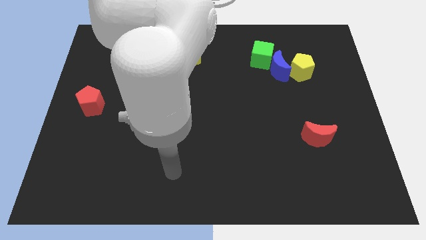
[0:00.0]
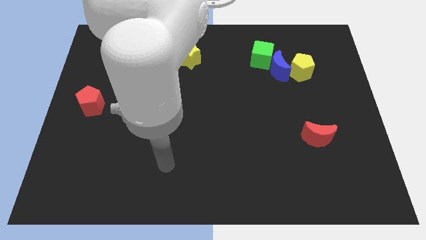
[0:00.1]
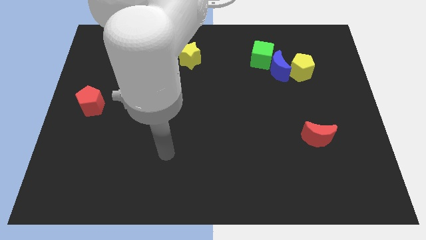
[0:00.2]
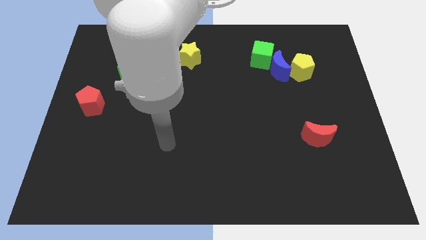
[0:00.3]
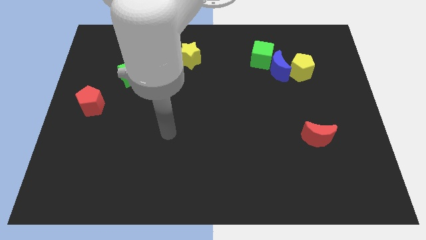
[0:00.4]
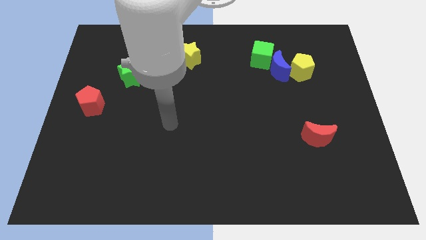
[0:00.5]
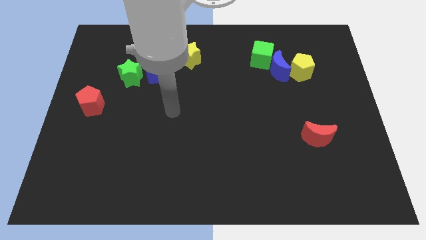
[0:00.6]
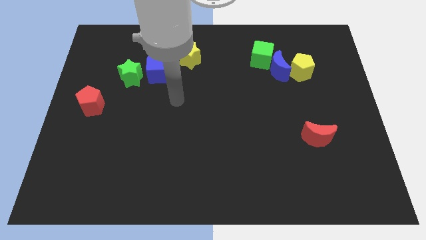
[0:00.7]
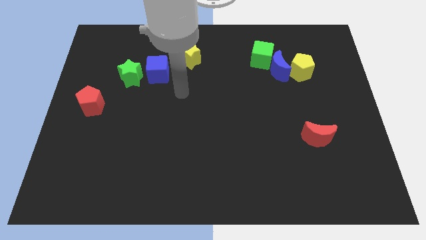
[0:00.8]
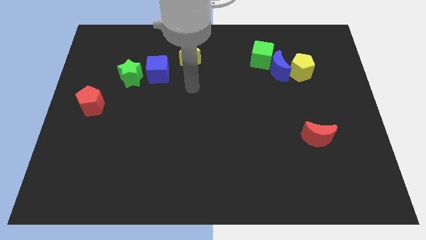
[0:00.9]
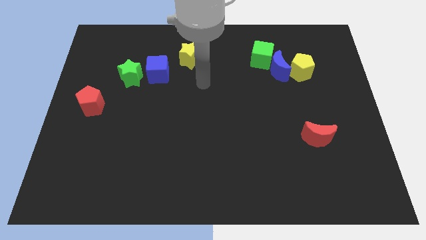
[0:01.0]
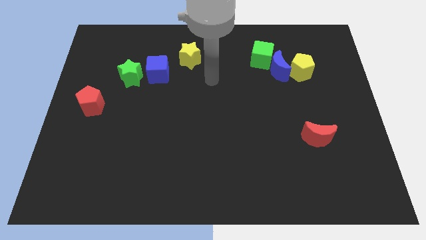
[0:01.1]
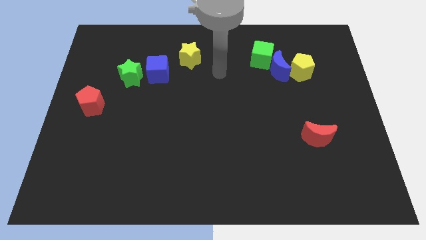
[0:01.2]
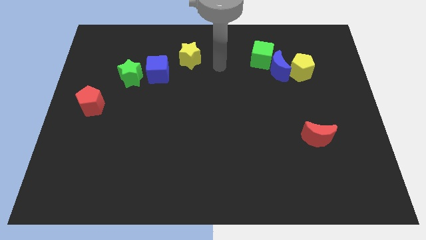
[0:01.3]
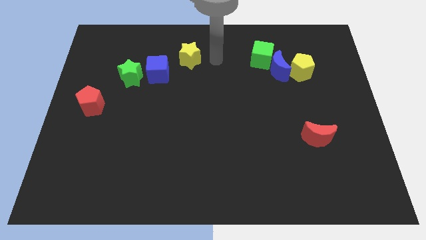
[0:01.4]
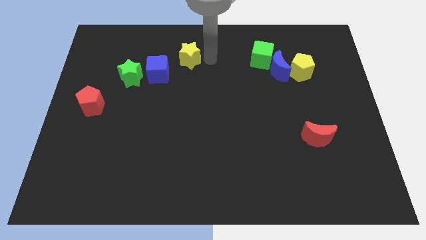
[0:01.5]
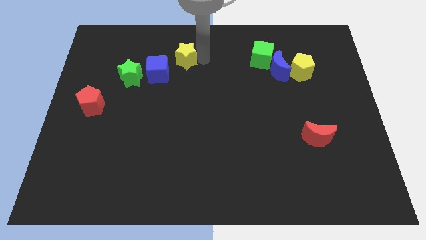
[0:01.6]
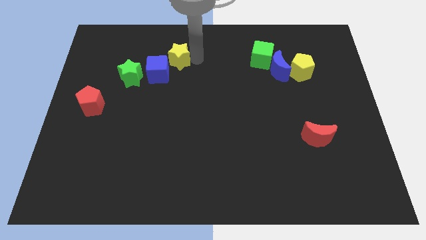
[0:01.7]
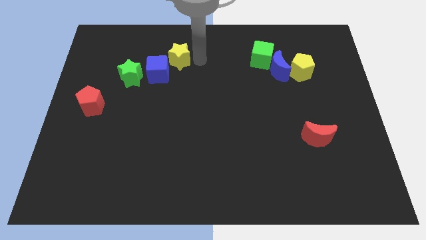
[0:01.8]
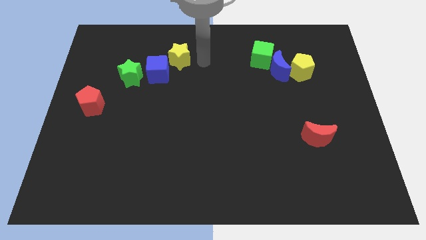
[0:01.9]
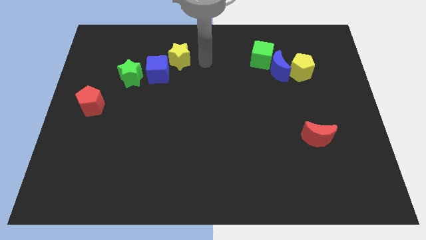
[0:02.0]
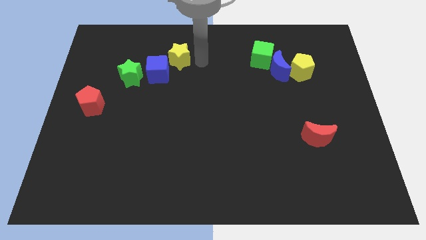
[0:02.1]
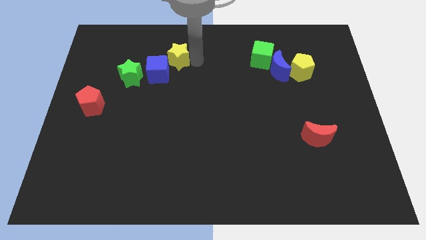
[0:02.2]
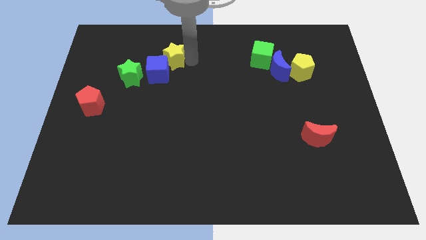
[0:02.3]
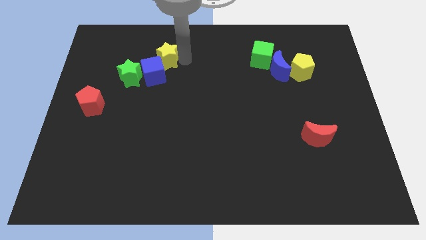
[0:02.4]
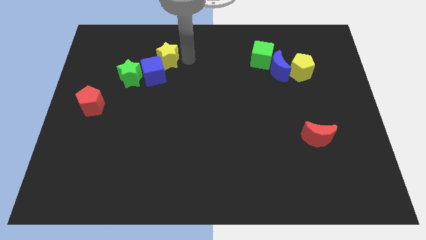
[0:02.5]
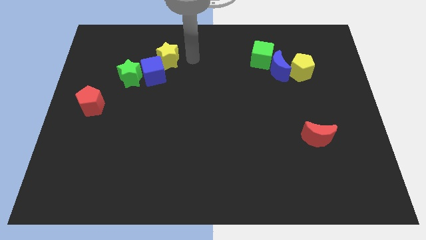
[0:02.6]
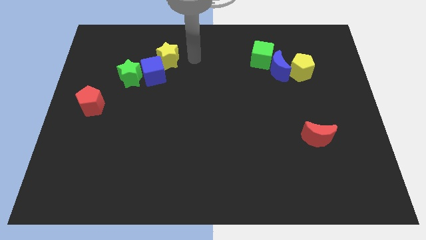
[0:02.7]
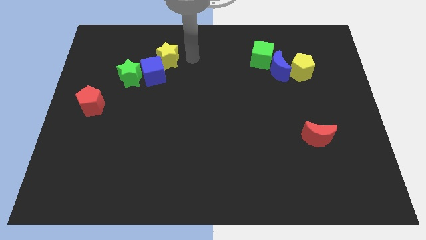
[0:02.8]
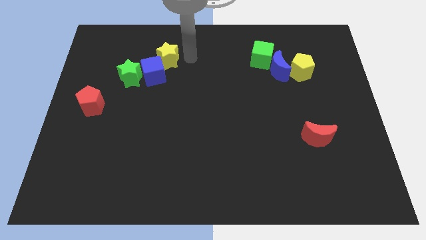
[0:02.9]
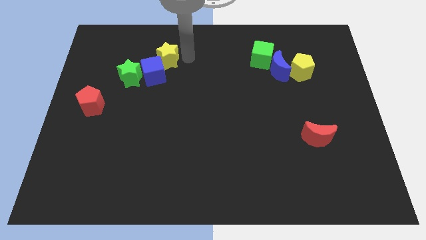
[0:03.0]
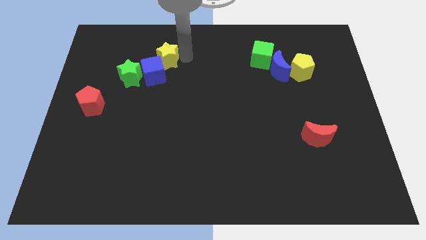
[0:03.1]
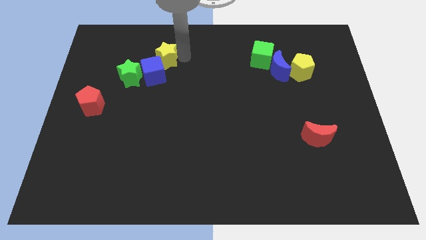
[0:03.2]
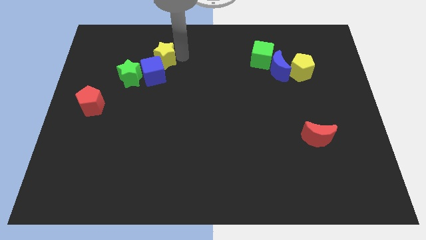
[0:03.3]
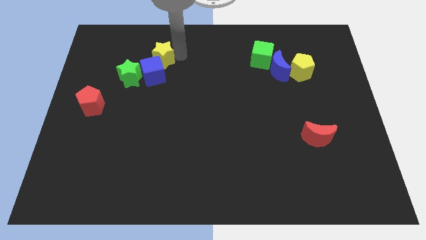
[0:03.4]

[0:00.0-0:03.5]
slide the yellow star to the left a little

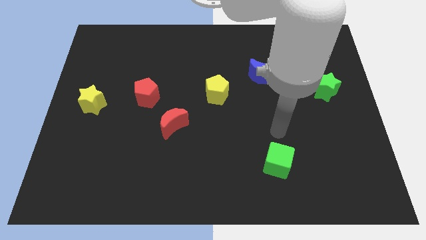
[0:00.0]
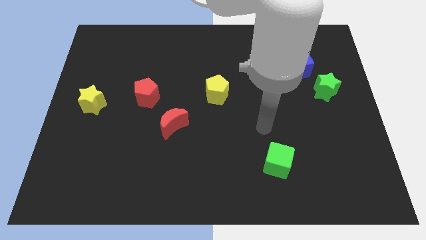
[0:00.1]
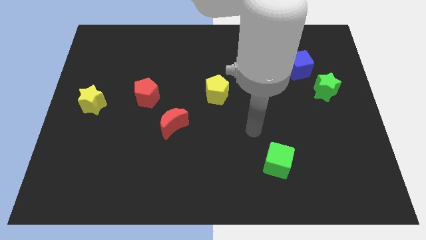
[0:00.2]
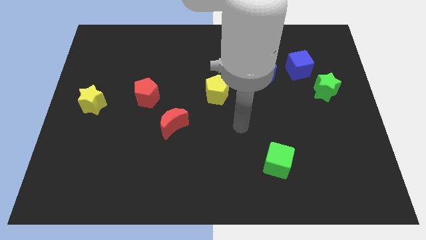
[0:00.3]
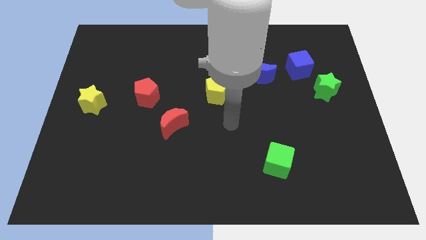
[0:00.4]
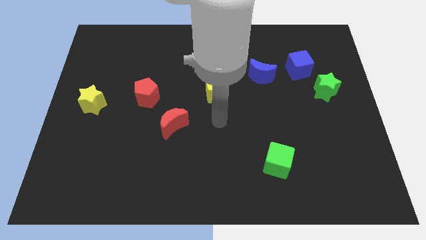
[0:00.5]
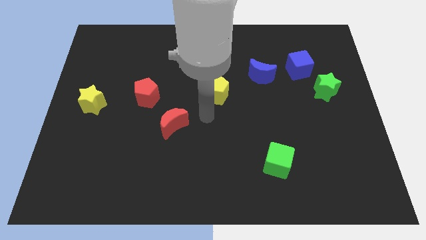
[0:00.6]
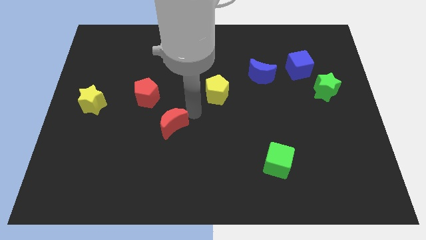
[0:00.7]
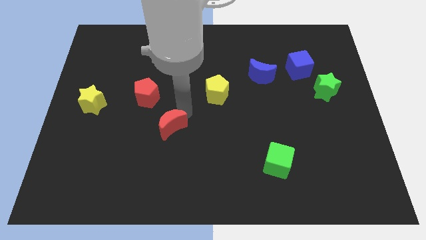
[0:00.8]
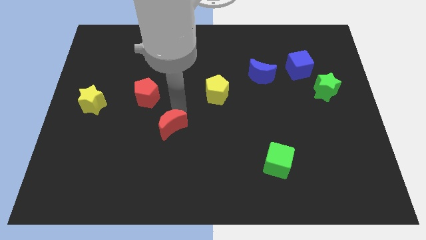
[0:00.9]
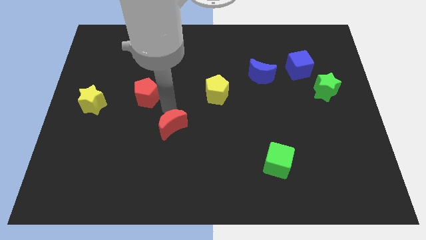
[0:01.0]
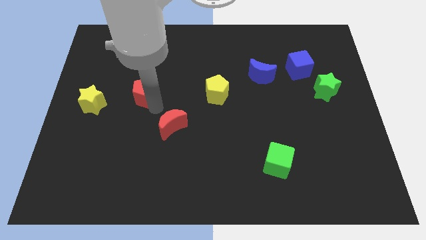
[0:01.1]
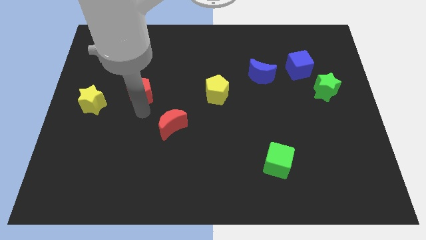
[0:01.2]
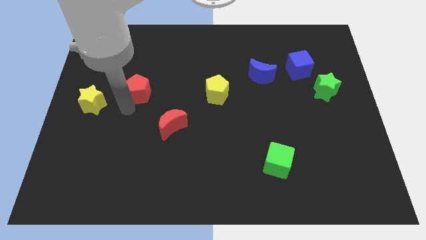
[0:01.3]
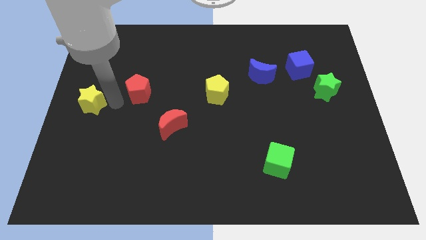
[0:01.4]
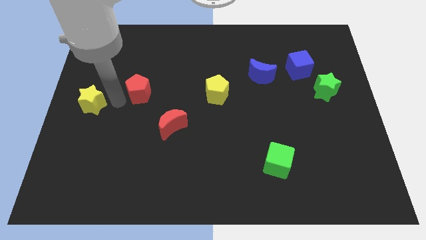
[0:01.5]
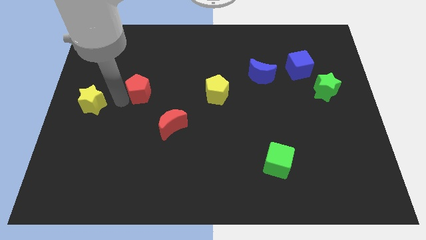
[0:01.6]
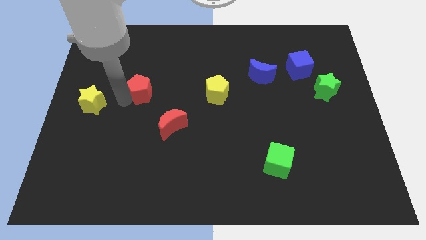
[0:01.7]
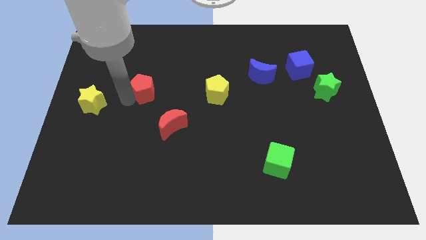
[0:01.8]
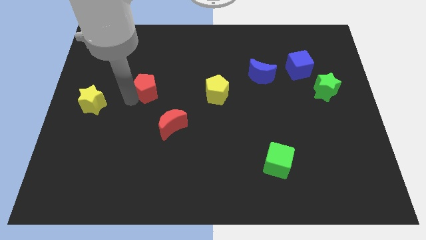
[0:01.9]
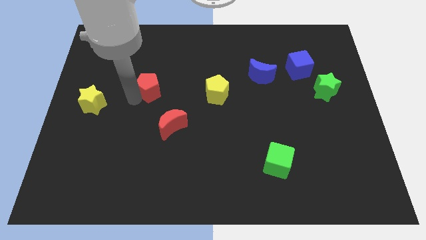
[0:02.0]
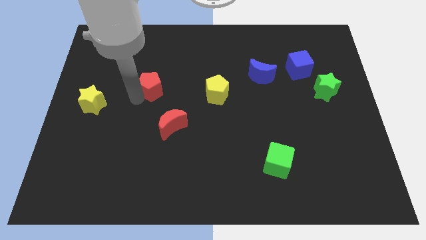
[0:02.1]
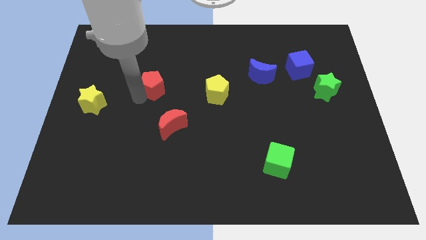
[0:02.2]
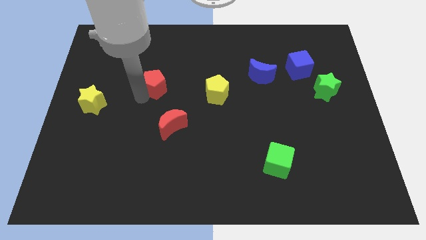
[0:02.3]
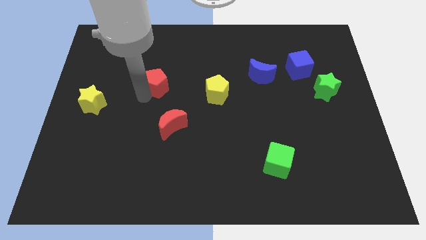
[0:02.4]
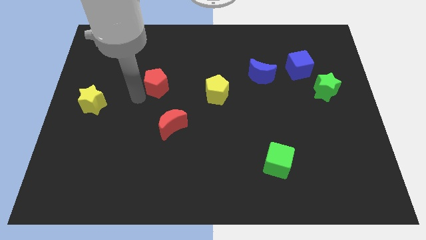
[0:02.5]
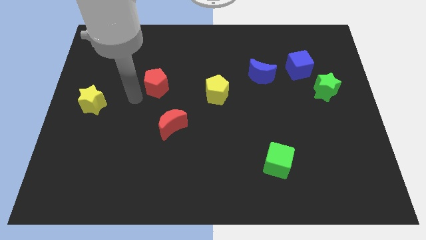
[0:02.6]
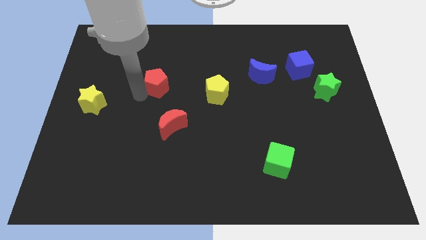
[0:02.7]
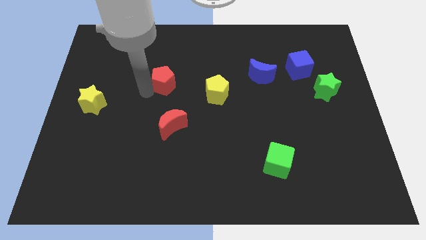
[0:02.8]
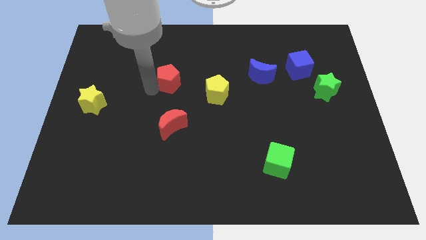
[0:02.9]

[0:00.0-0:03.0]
push the red pentagon up and then to the right slightly

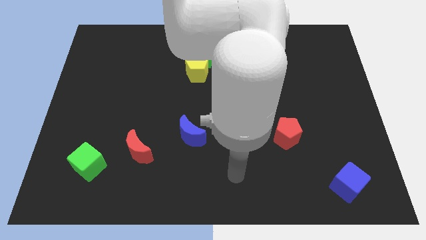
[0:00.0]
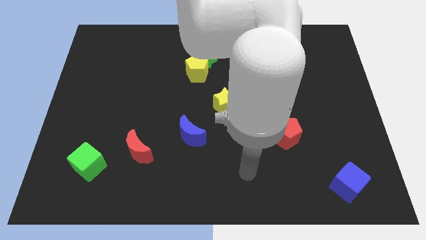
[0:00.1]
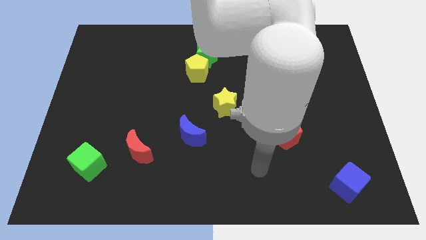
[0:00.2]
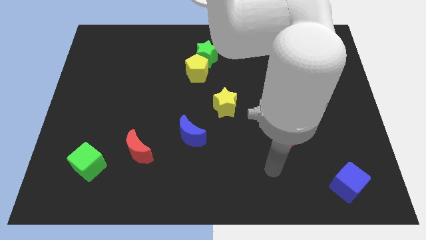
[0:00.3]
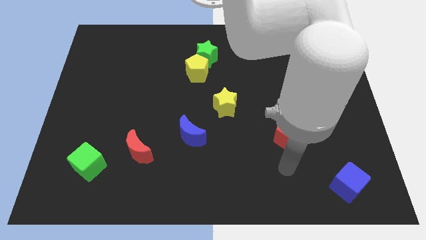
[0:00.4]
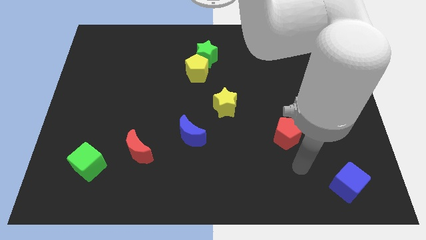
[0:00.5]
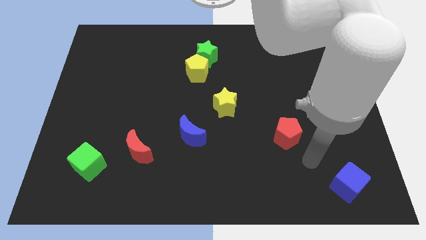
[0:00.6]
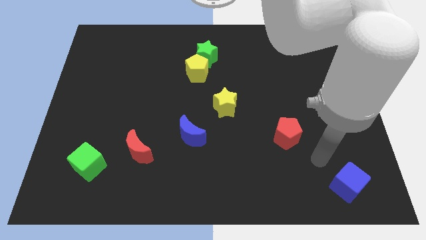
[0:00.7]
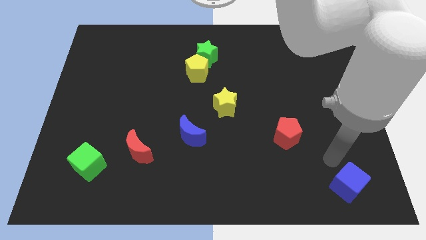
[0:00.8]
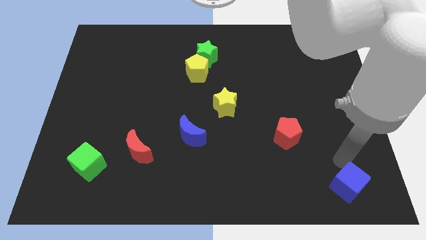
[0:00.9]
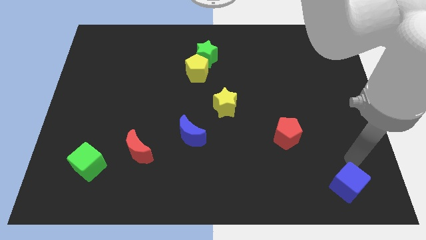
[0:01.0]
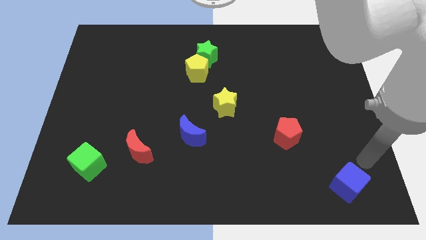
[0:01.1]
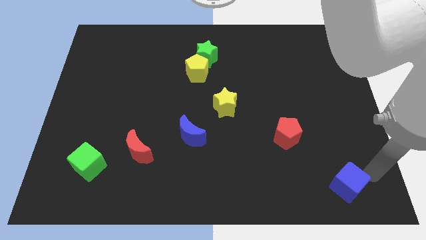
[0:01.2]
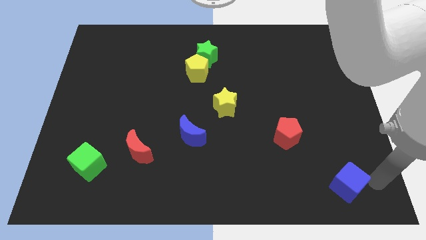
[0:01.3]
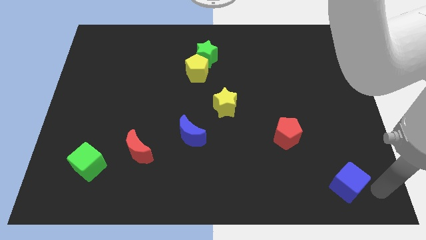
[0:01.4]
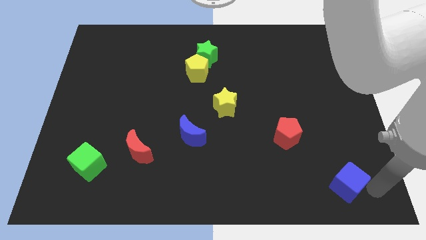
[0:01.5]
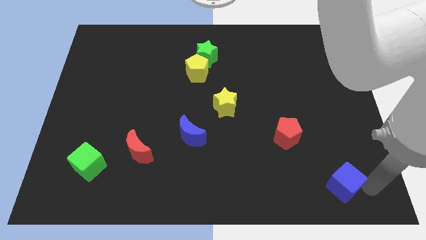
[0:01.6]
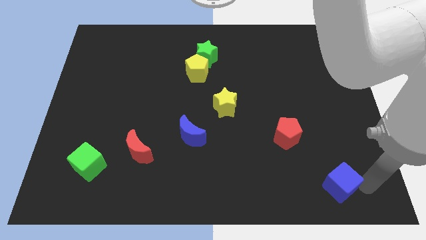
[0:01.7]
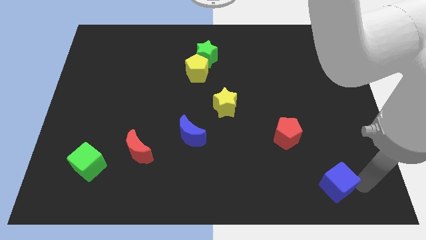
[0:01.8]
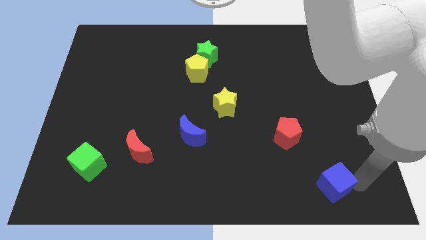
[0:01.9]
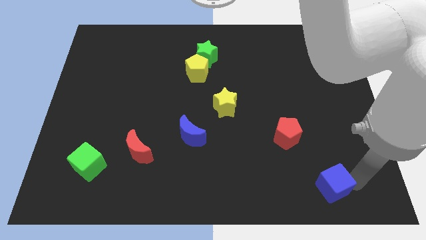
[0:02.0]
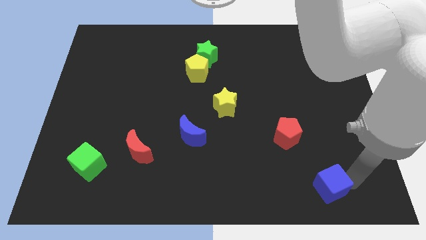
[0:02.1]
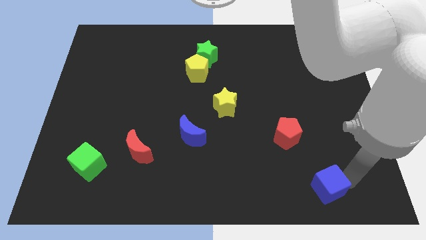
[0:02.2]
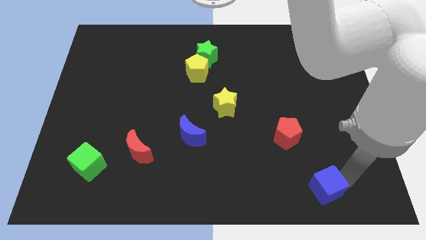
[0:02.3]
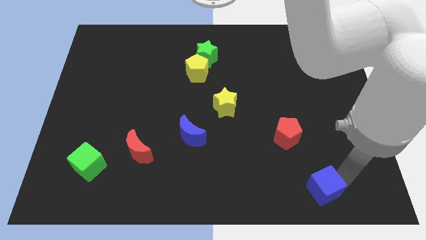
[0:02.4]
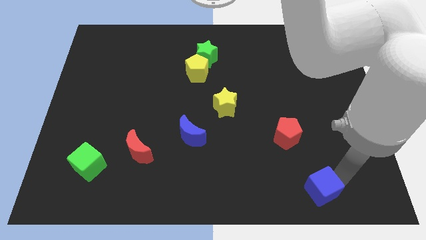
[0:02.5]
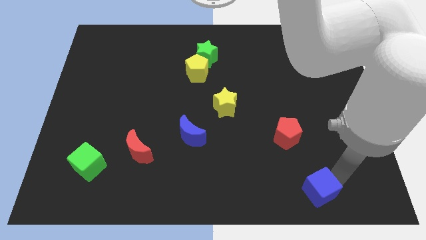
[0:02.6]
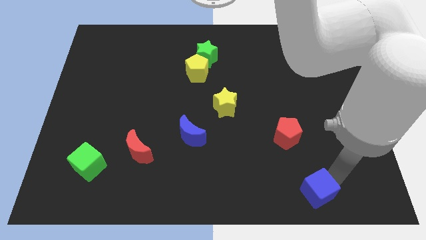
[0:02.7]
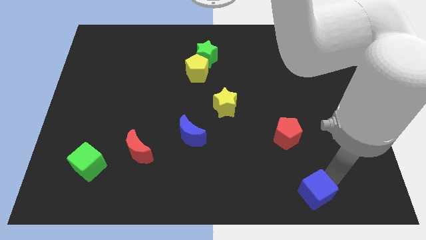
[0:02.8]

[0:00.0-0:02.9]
slightly move the blue cube to the left
